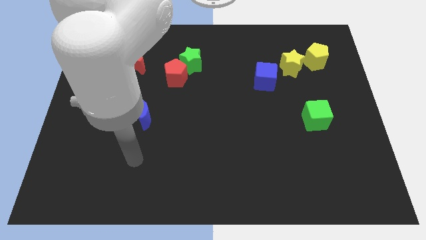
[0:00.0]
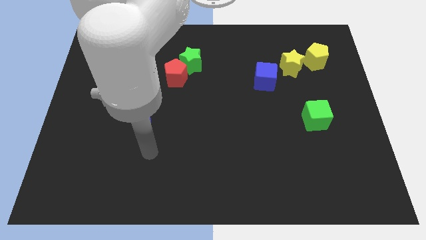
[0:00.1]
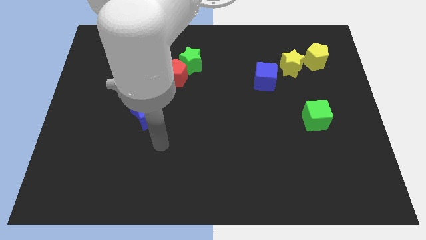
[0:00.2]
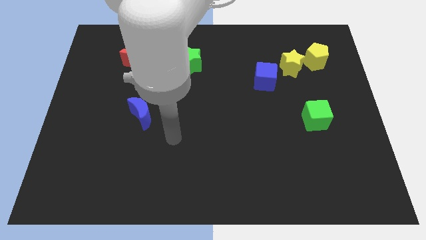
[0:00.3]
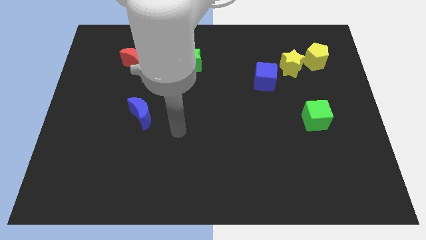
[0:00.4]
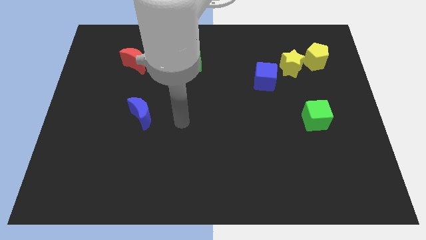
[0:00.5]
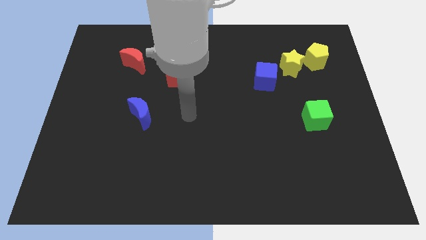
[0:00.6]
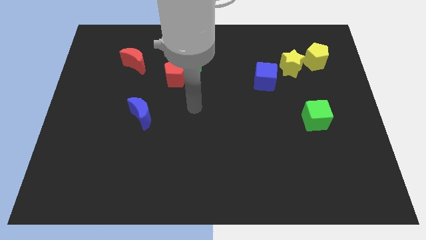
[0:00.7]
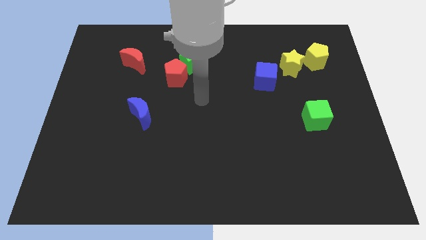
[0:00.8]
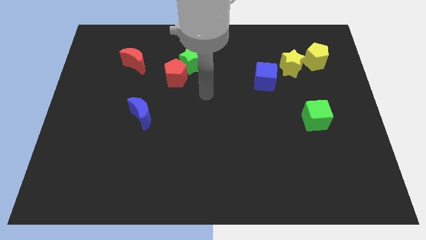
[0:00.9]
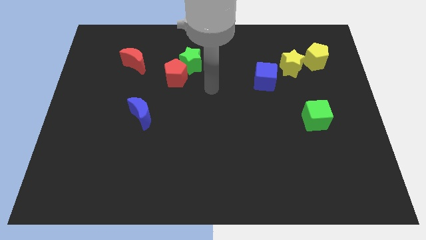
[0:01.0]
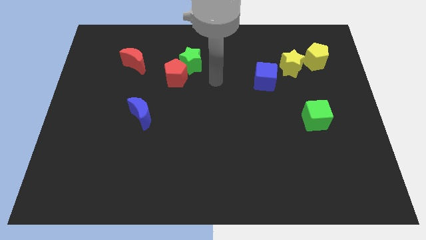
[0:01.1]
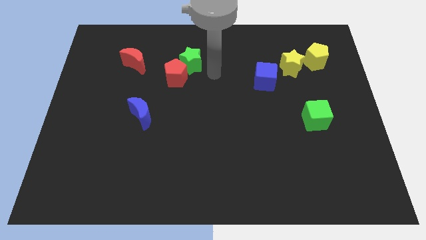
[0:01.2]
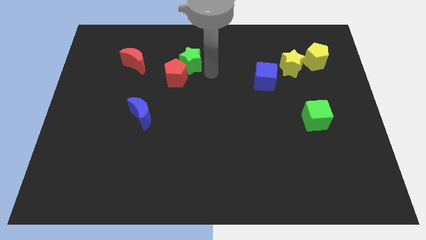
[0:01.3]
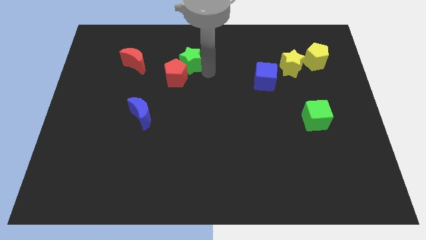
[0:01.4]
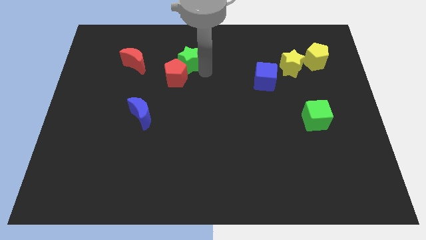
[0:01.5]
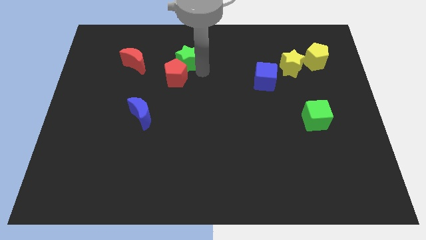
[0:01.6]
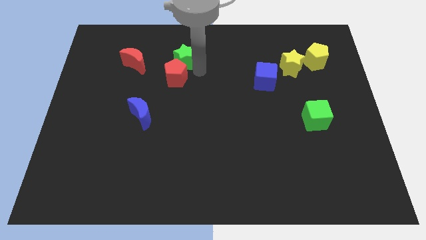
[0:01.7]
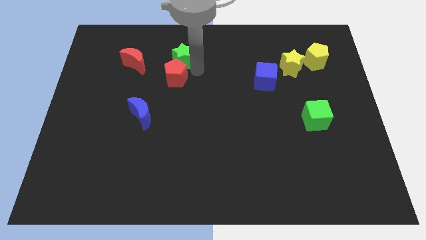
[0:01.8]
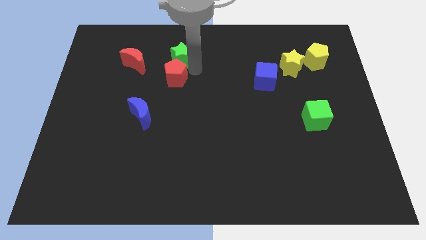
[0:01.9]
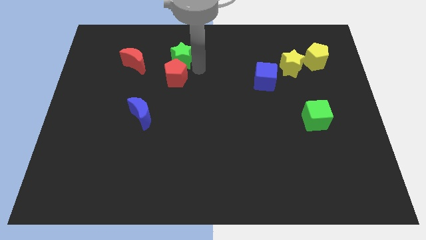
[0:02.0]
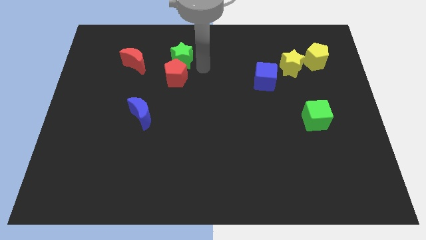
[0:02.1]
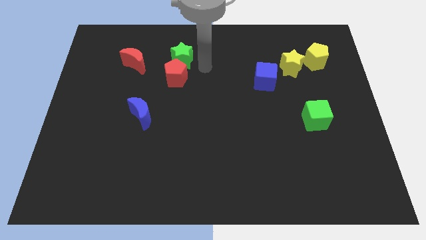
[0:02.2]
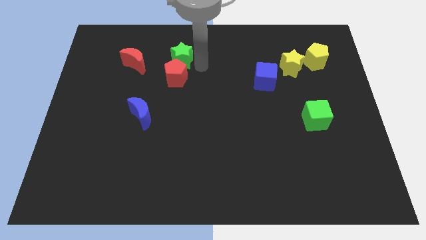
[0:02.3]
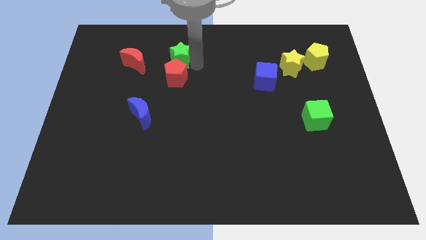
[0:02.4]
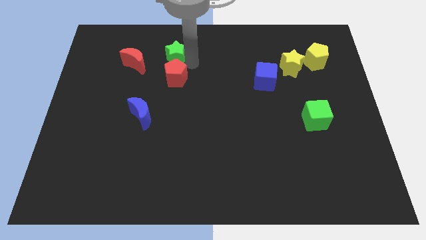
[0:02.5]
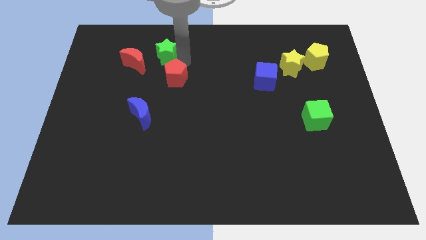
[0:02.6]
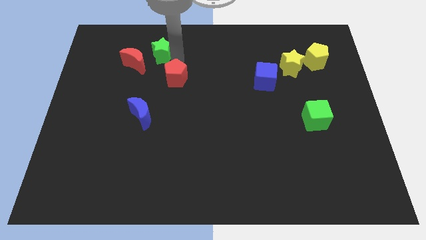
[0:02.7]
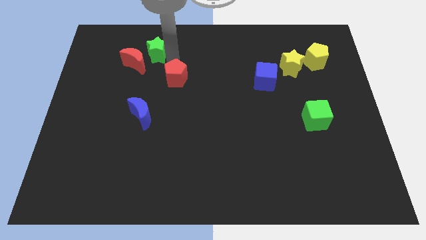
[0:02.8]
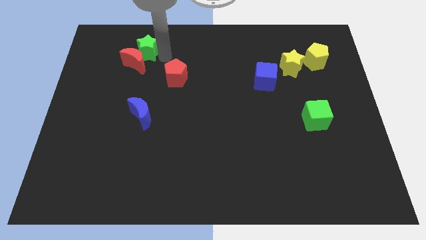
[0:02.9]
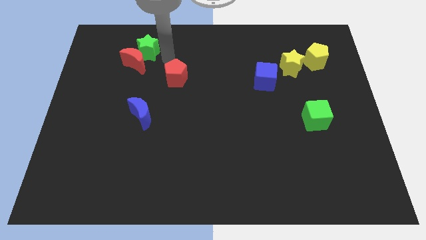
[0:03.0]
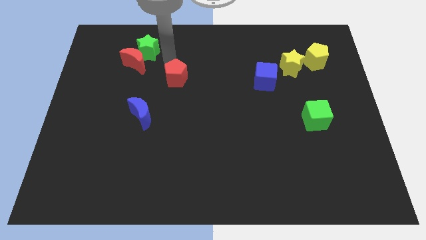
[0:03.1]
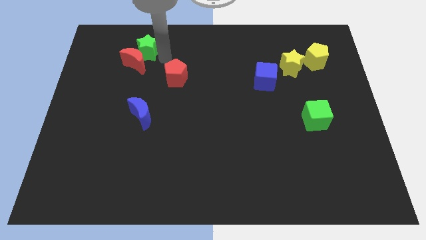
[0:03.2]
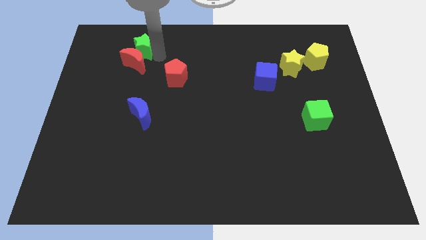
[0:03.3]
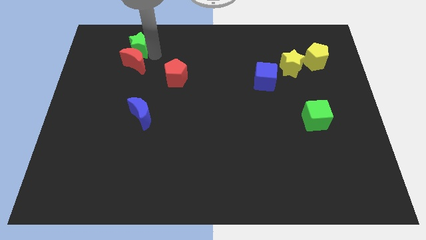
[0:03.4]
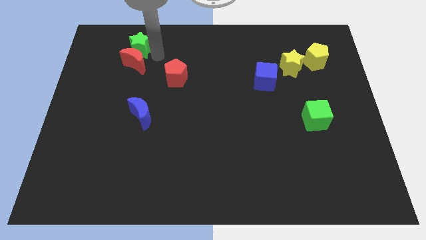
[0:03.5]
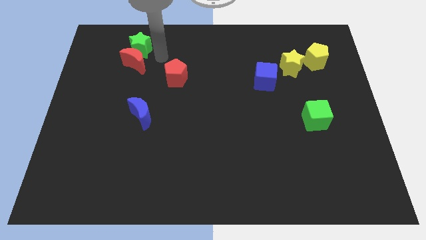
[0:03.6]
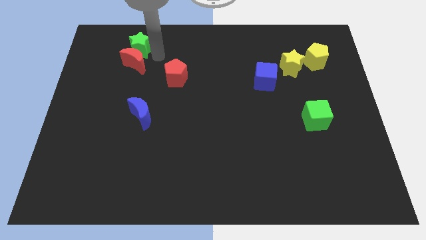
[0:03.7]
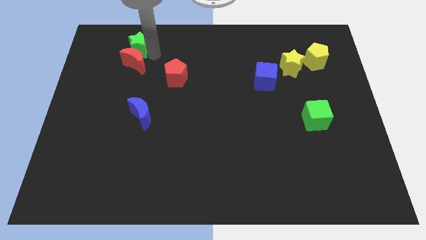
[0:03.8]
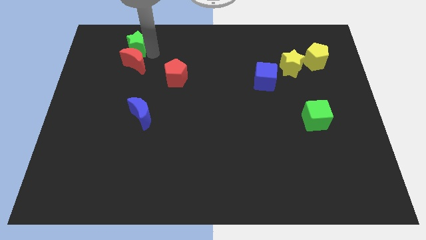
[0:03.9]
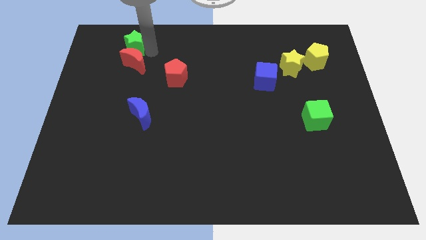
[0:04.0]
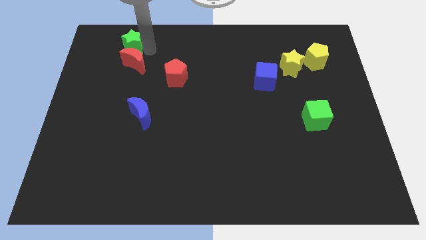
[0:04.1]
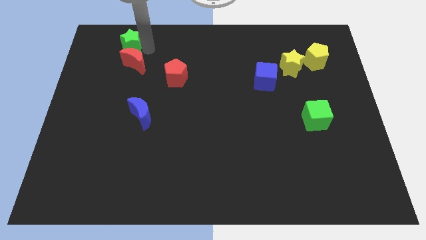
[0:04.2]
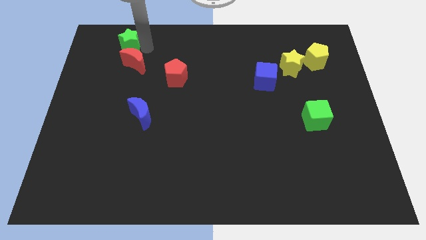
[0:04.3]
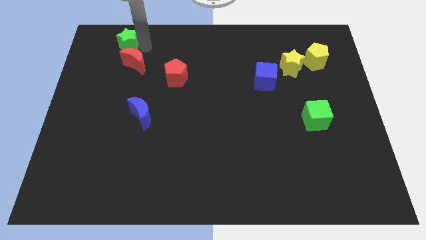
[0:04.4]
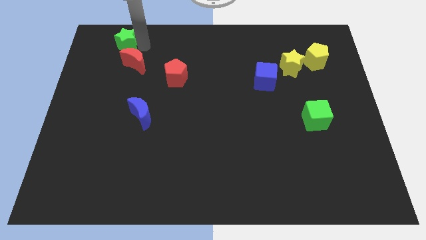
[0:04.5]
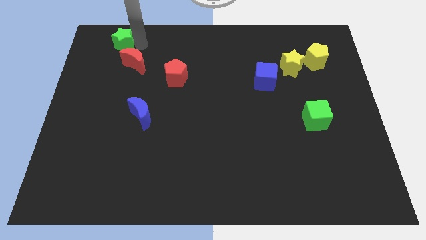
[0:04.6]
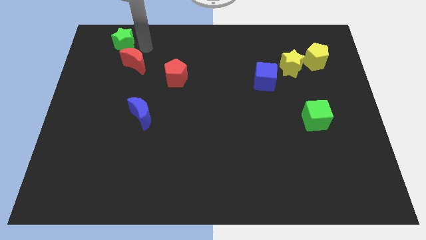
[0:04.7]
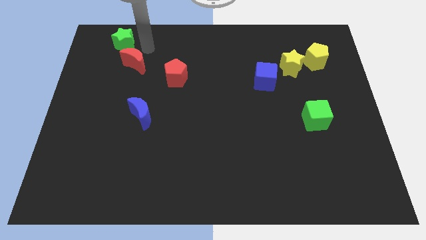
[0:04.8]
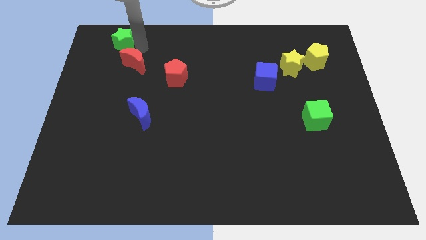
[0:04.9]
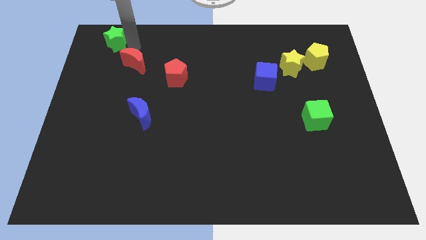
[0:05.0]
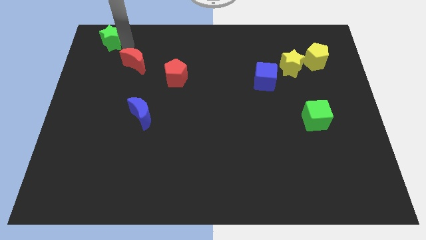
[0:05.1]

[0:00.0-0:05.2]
slide the green star to the upper left corner

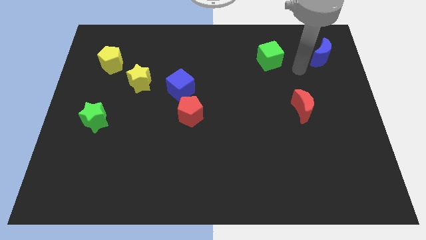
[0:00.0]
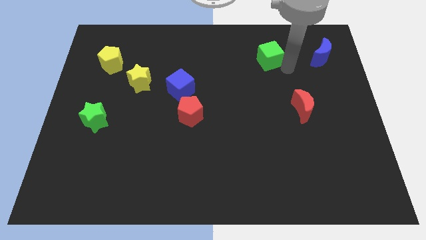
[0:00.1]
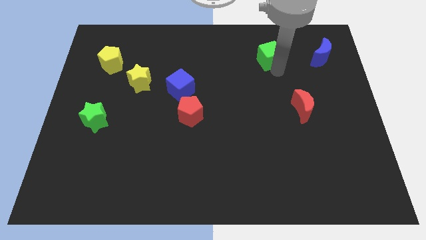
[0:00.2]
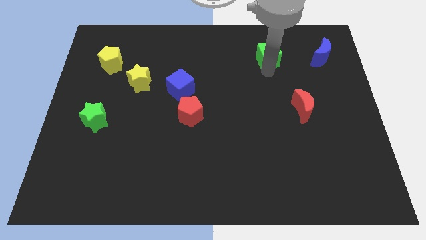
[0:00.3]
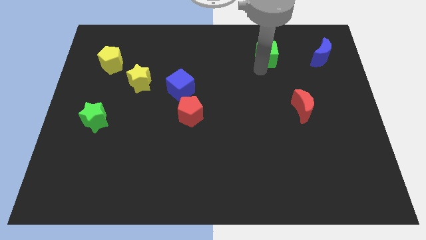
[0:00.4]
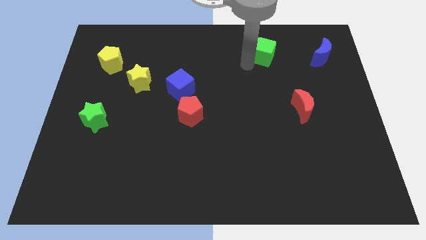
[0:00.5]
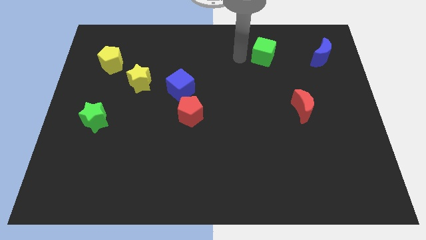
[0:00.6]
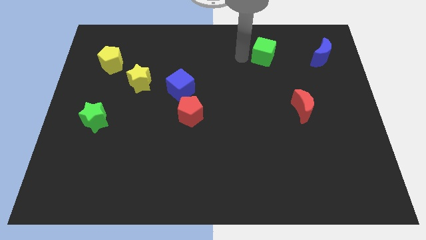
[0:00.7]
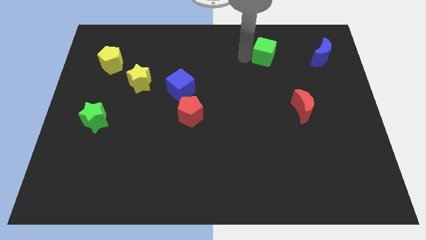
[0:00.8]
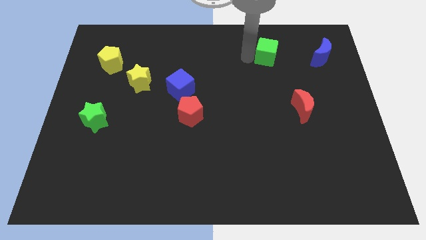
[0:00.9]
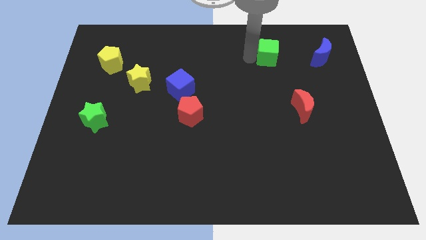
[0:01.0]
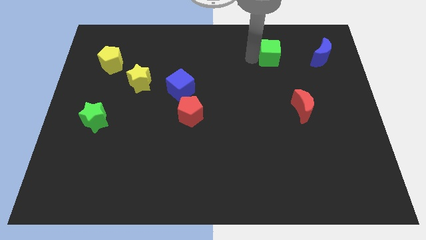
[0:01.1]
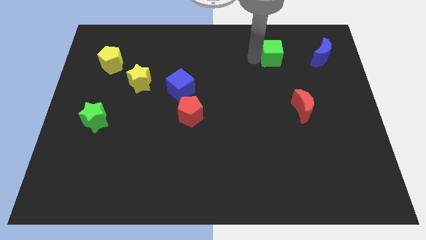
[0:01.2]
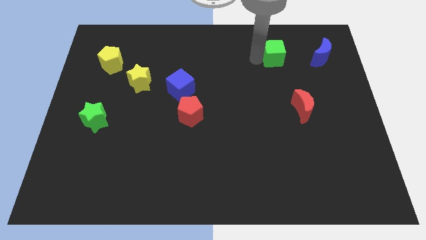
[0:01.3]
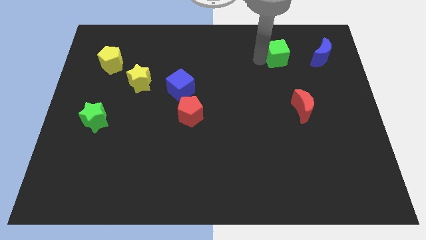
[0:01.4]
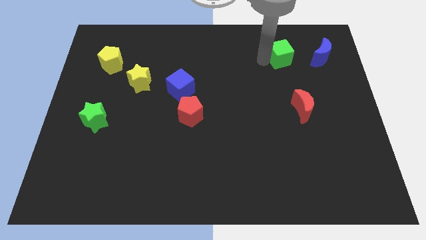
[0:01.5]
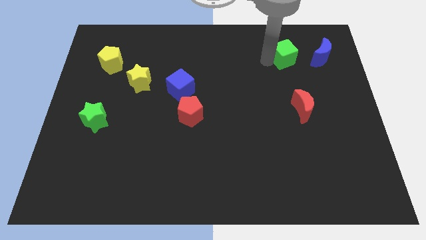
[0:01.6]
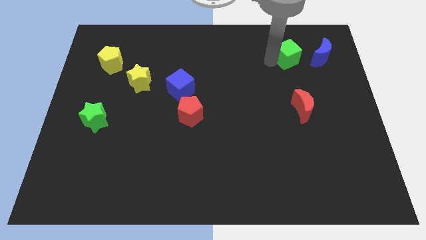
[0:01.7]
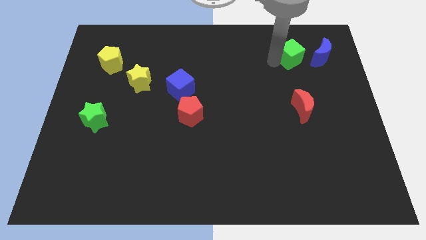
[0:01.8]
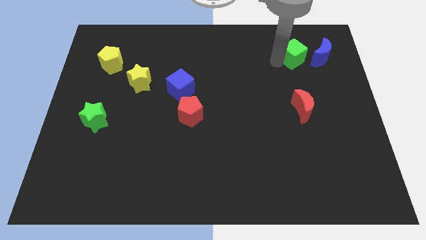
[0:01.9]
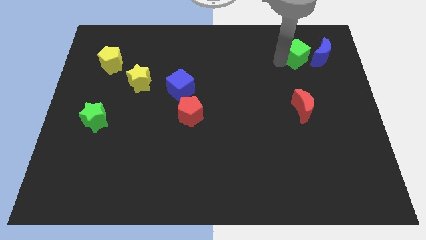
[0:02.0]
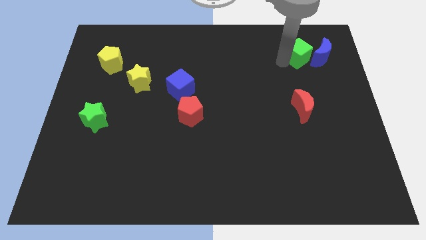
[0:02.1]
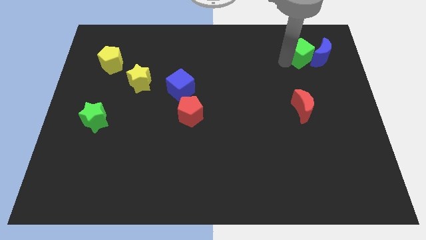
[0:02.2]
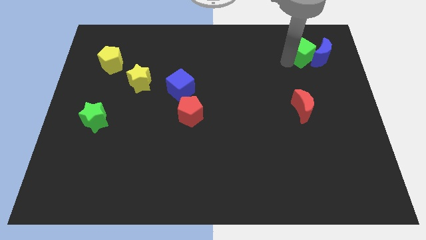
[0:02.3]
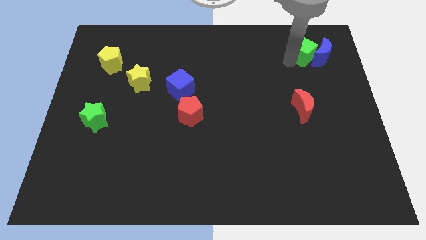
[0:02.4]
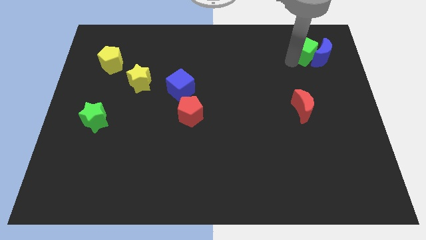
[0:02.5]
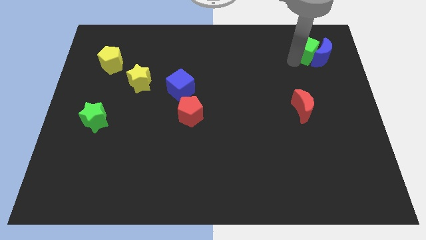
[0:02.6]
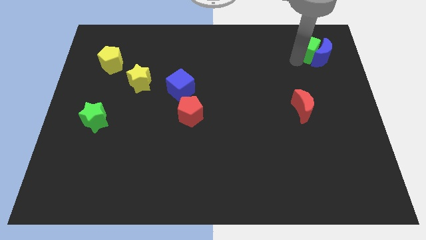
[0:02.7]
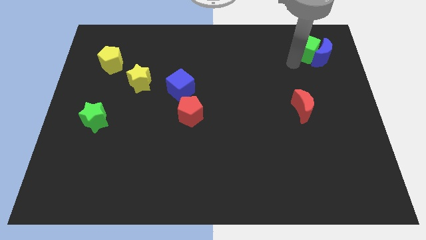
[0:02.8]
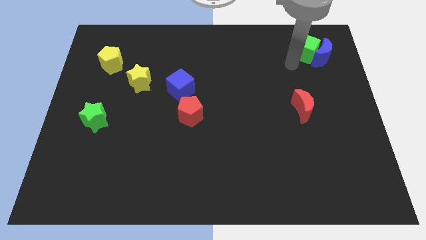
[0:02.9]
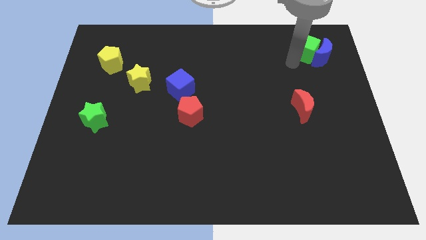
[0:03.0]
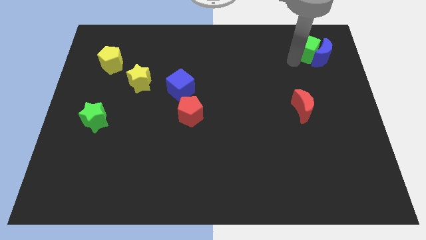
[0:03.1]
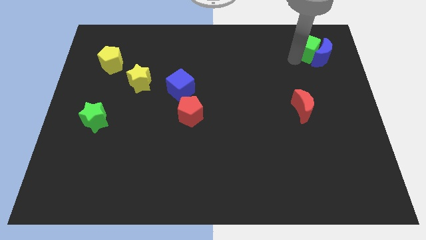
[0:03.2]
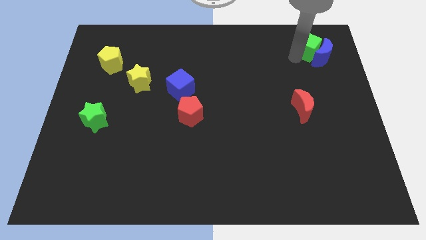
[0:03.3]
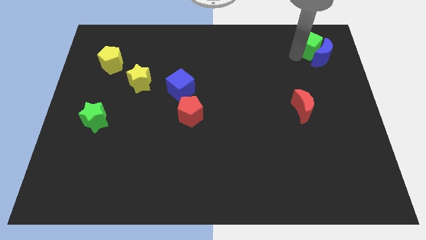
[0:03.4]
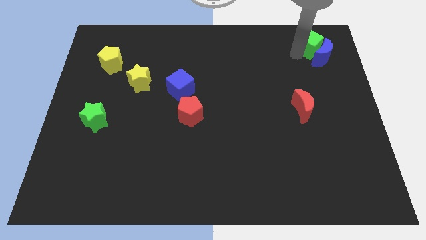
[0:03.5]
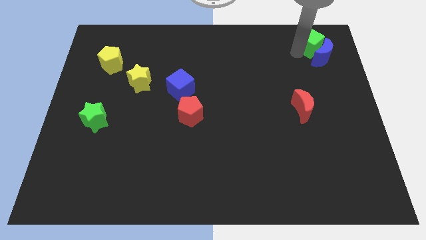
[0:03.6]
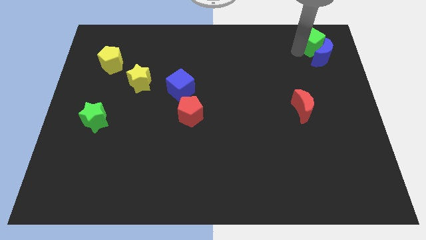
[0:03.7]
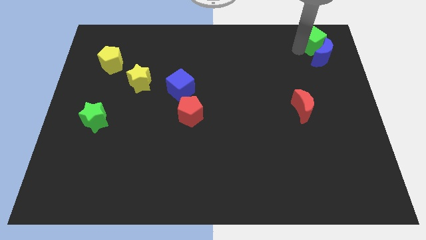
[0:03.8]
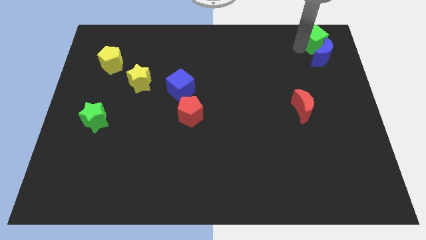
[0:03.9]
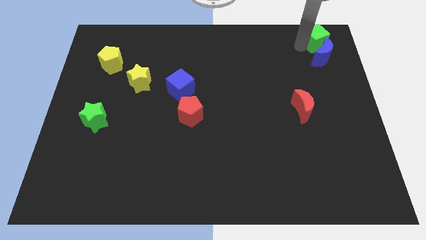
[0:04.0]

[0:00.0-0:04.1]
slide the green cube to the top right corner
